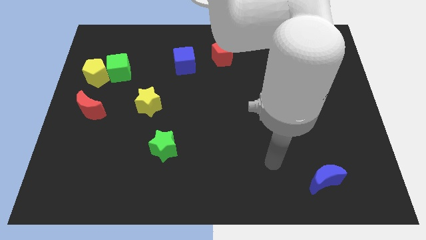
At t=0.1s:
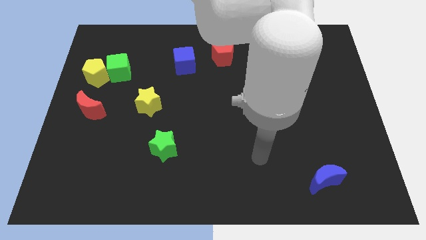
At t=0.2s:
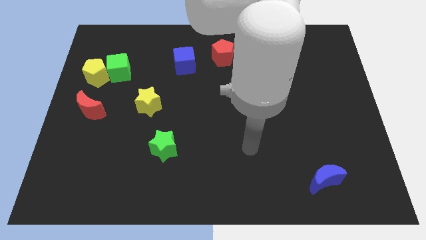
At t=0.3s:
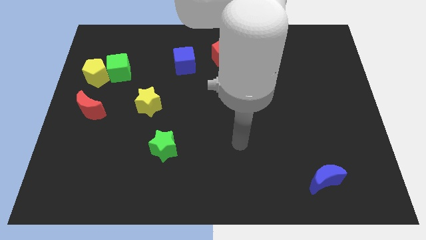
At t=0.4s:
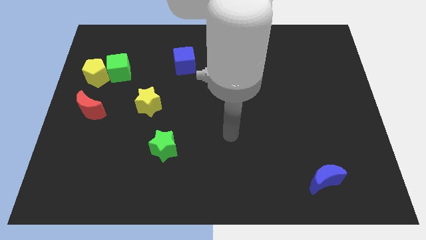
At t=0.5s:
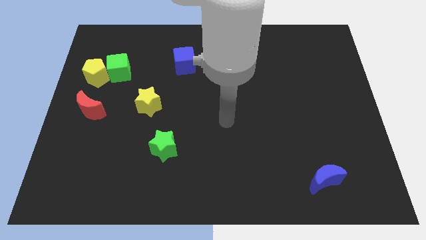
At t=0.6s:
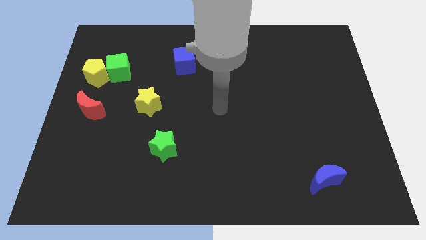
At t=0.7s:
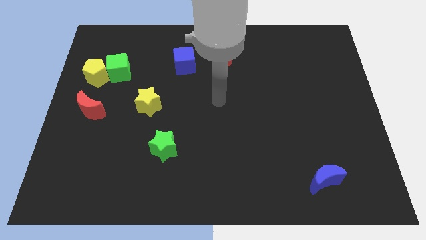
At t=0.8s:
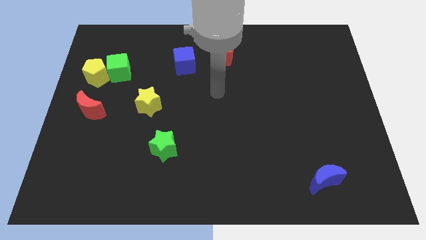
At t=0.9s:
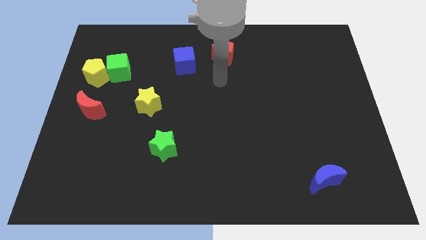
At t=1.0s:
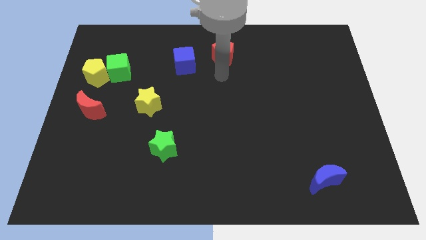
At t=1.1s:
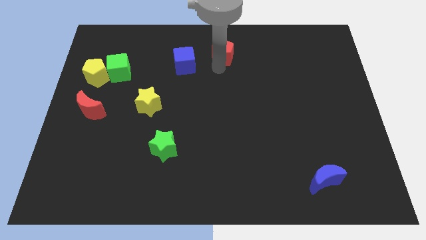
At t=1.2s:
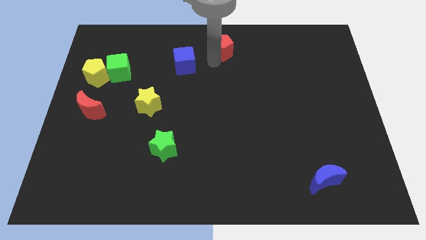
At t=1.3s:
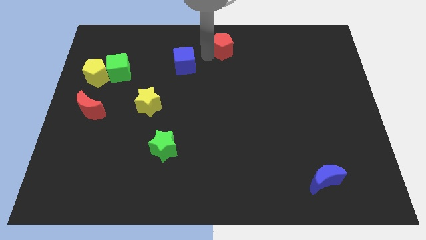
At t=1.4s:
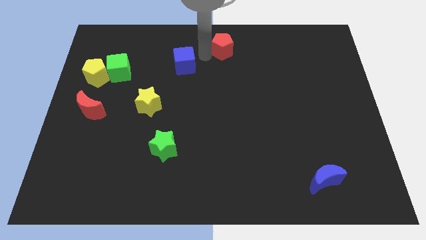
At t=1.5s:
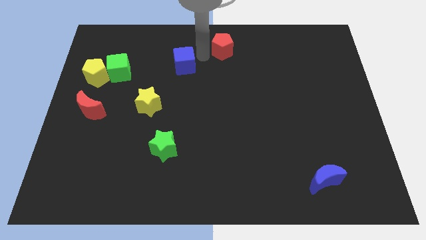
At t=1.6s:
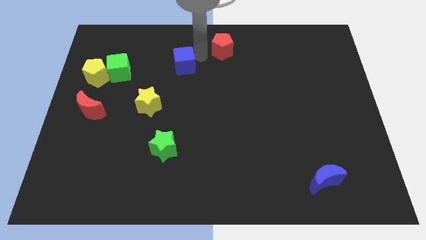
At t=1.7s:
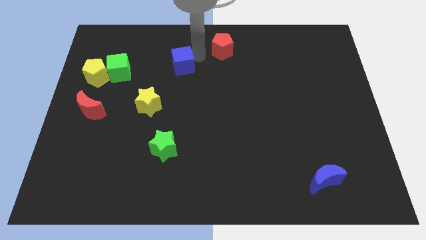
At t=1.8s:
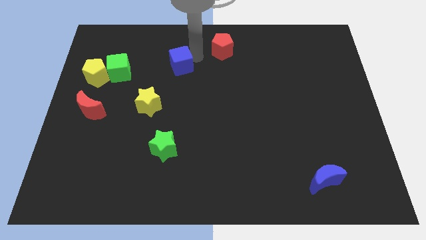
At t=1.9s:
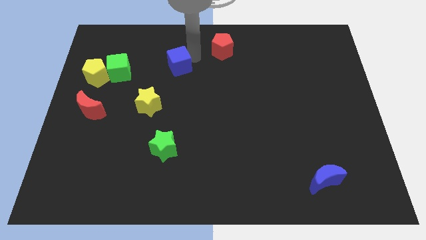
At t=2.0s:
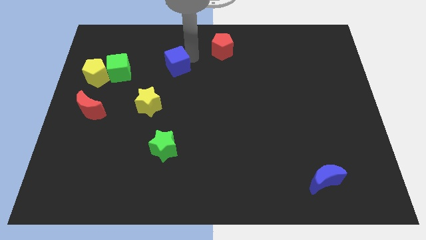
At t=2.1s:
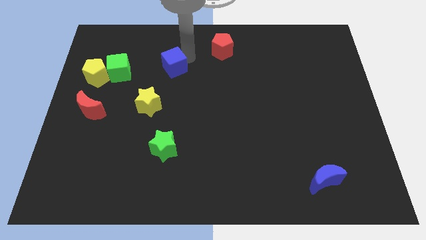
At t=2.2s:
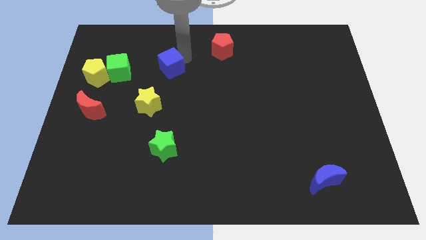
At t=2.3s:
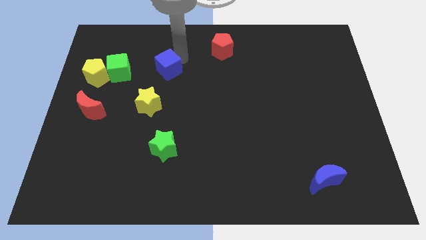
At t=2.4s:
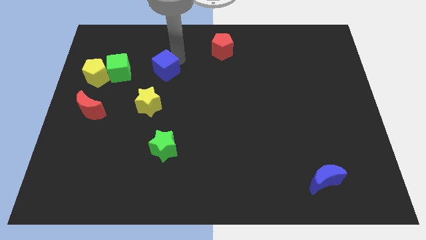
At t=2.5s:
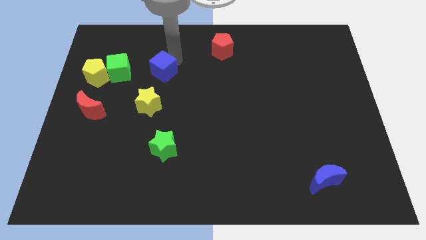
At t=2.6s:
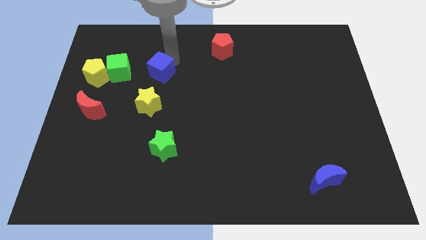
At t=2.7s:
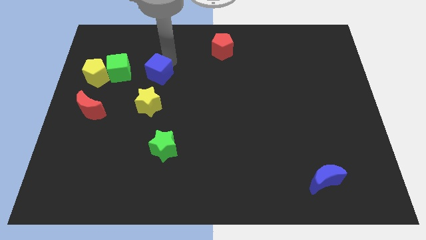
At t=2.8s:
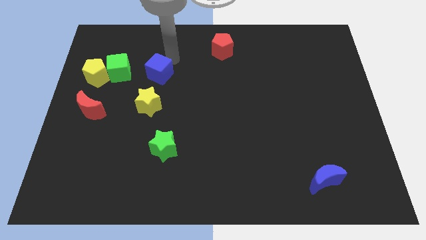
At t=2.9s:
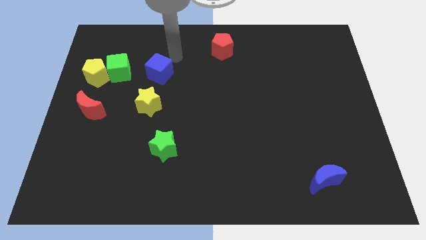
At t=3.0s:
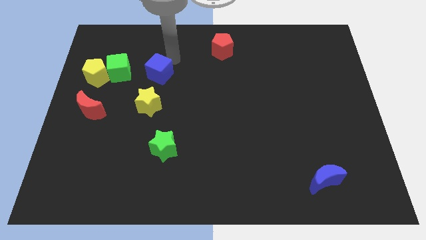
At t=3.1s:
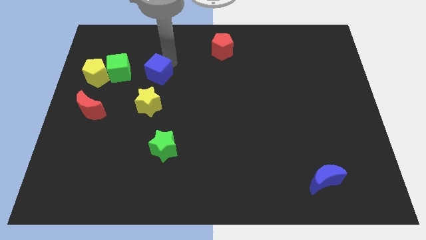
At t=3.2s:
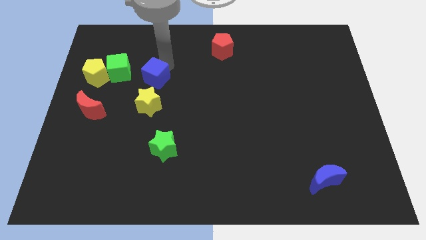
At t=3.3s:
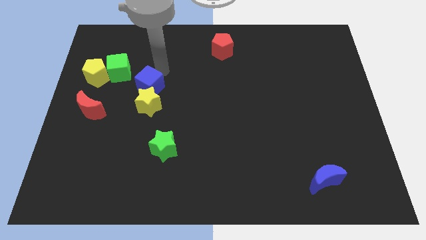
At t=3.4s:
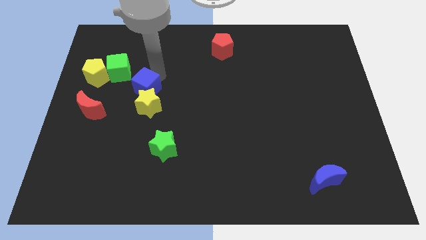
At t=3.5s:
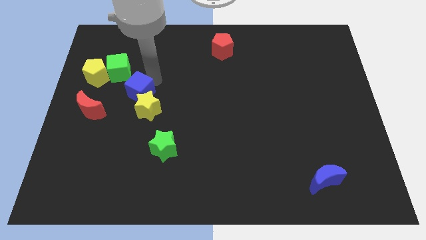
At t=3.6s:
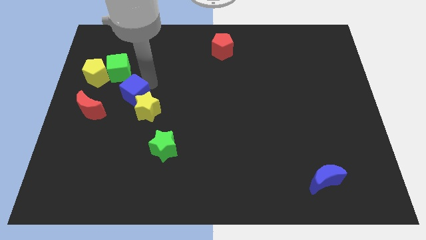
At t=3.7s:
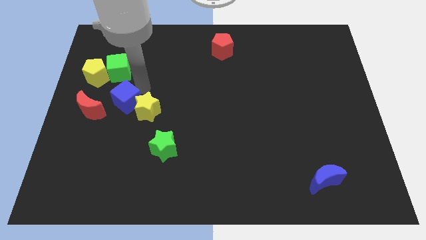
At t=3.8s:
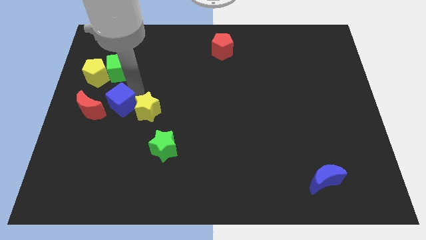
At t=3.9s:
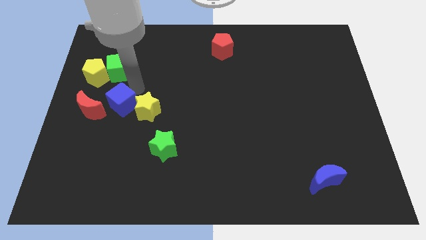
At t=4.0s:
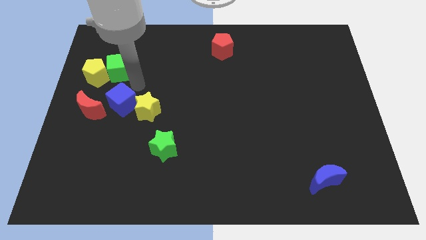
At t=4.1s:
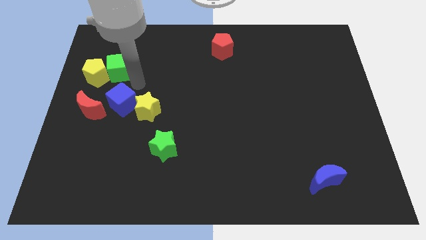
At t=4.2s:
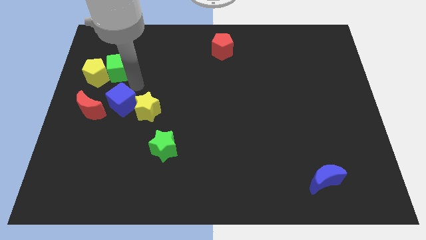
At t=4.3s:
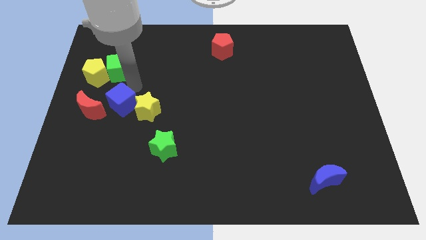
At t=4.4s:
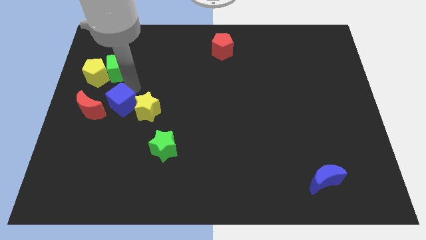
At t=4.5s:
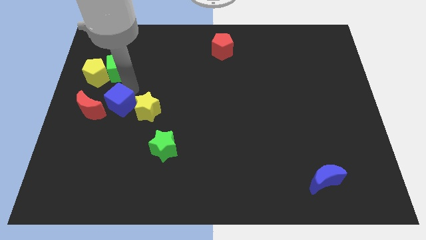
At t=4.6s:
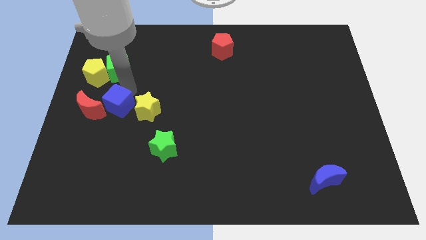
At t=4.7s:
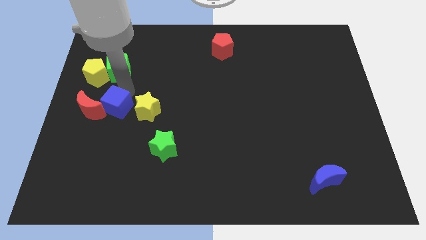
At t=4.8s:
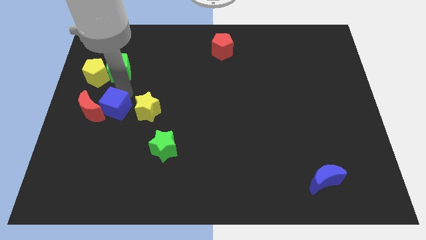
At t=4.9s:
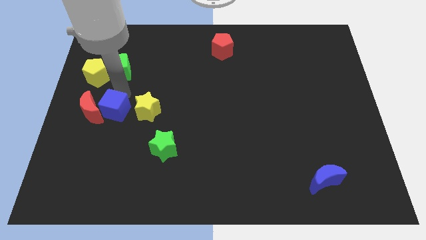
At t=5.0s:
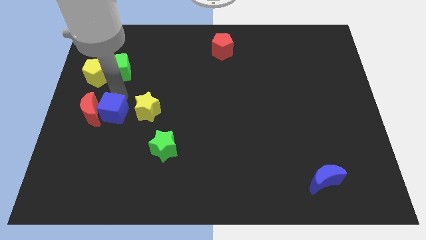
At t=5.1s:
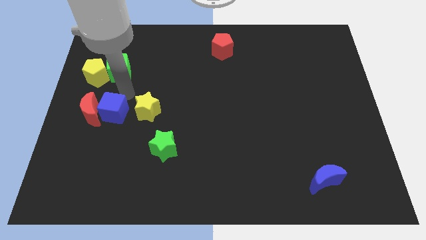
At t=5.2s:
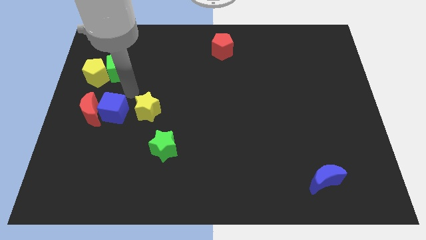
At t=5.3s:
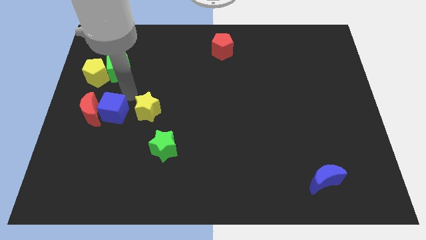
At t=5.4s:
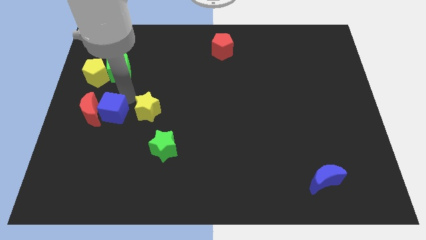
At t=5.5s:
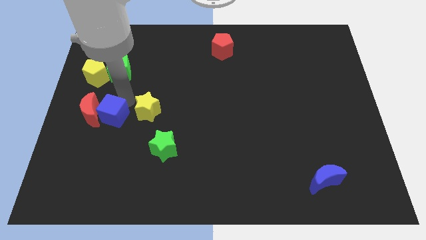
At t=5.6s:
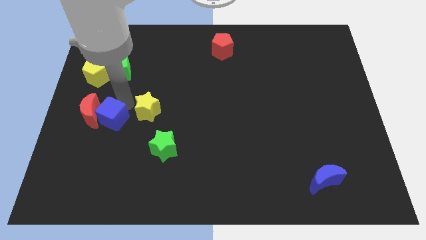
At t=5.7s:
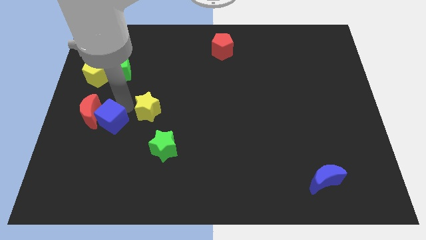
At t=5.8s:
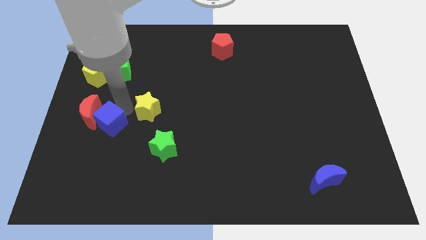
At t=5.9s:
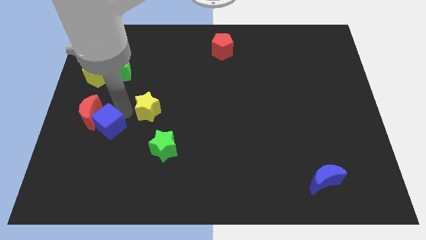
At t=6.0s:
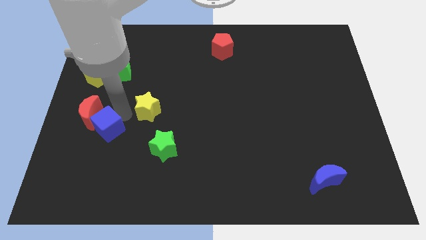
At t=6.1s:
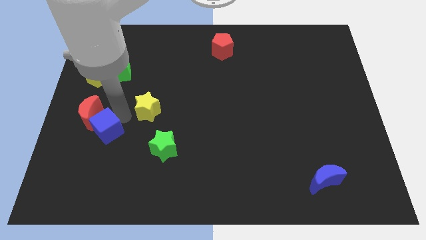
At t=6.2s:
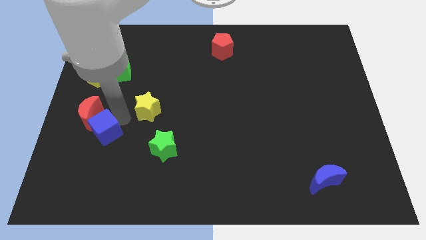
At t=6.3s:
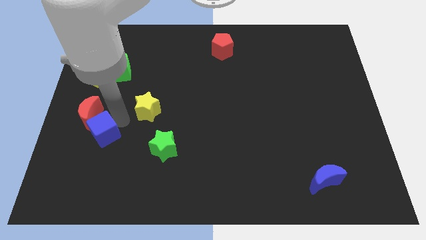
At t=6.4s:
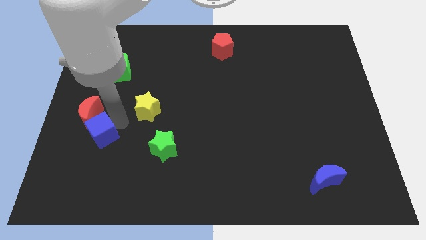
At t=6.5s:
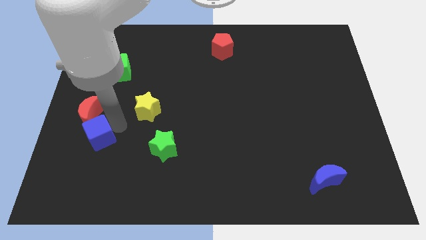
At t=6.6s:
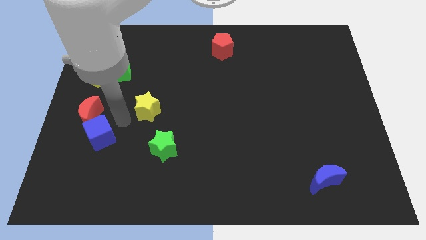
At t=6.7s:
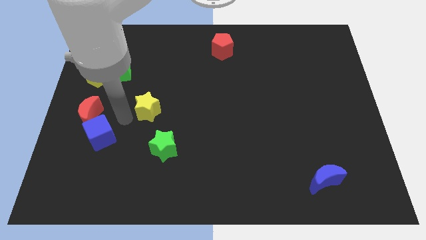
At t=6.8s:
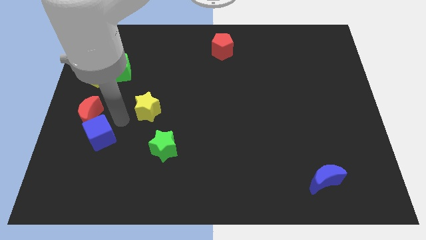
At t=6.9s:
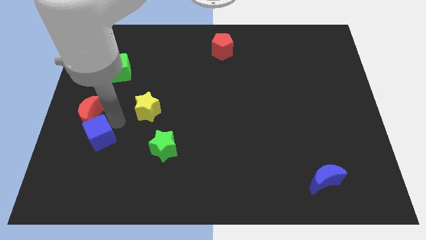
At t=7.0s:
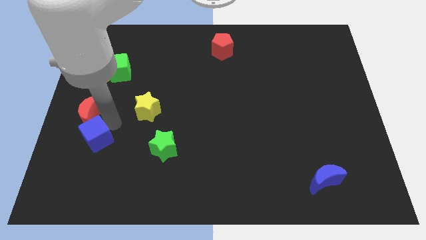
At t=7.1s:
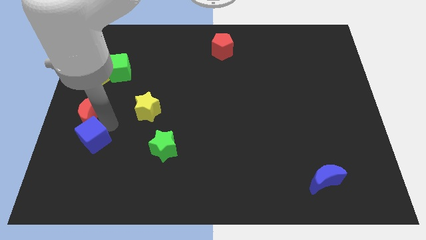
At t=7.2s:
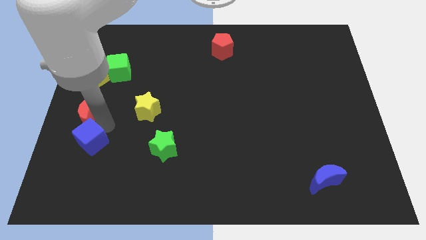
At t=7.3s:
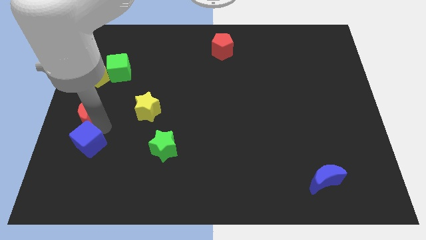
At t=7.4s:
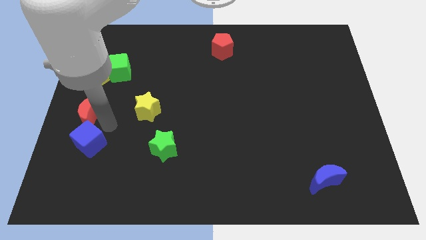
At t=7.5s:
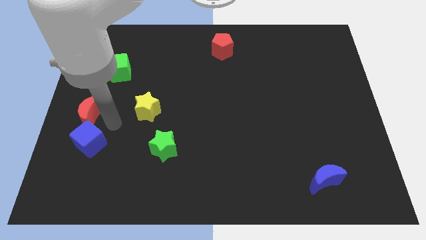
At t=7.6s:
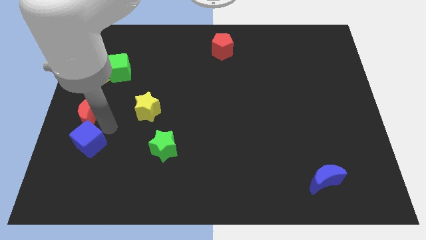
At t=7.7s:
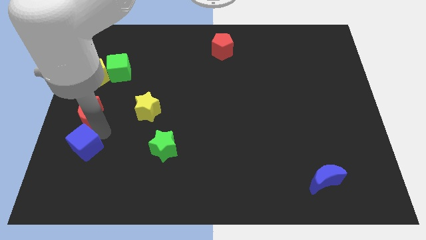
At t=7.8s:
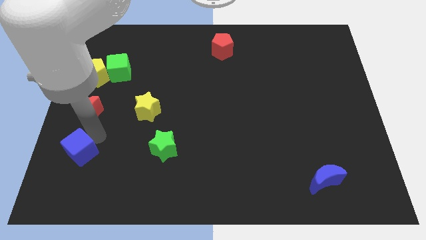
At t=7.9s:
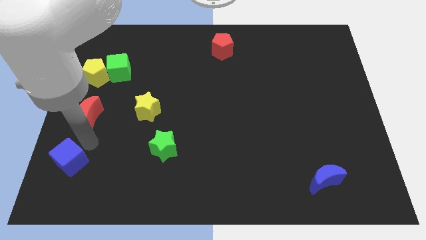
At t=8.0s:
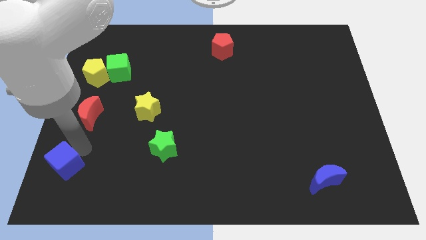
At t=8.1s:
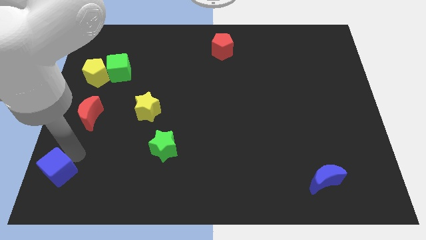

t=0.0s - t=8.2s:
move the blue cube to the bottom left
